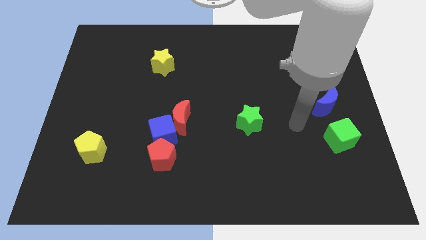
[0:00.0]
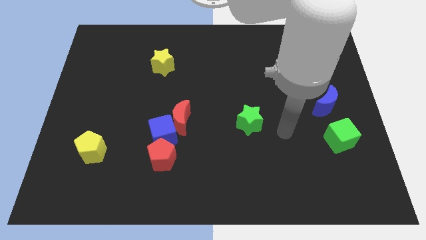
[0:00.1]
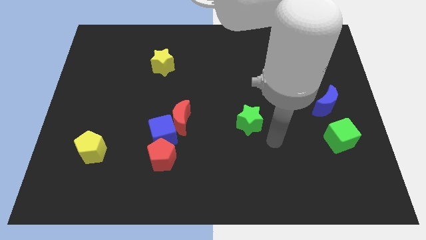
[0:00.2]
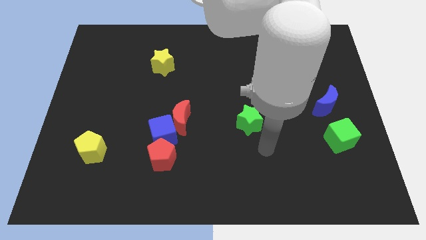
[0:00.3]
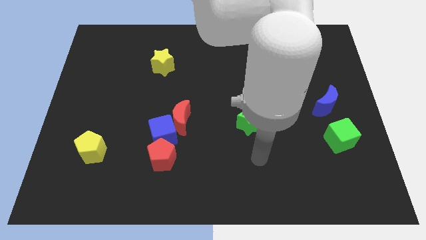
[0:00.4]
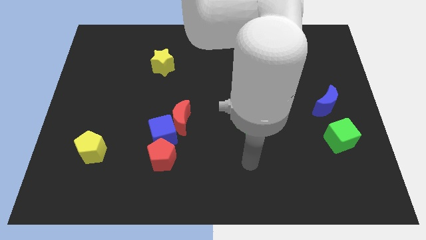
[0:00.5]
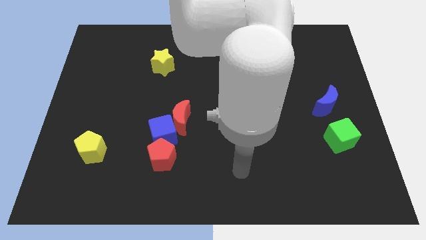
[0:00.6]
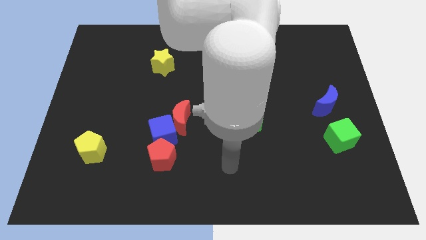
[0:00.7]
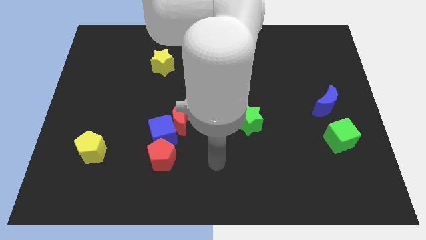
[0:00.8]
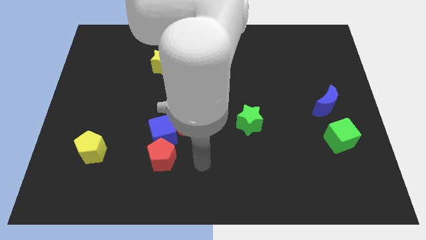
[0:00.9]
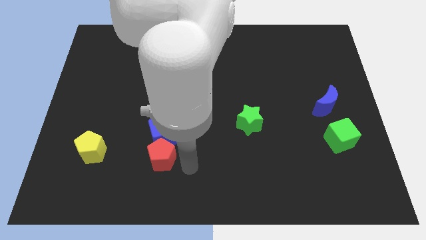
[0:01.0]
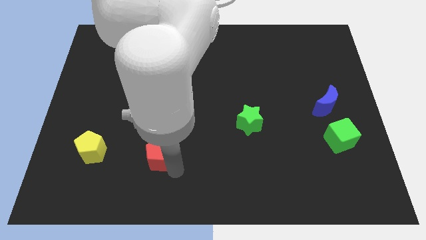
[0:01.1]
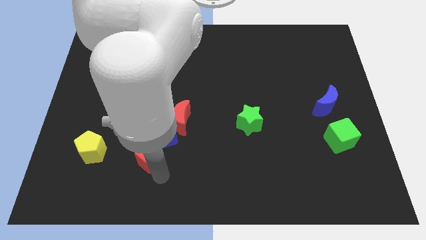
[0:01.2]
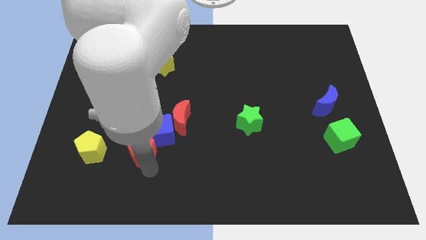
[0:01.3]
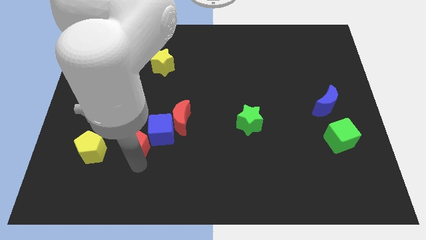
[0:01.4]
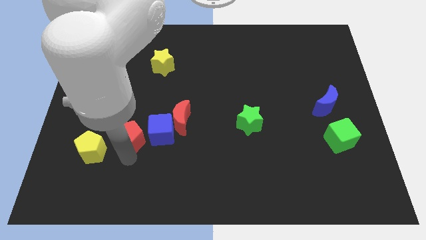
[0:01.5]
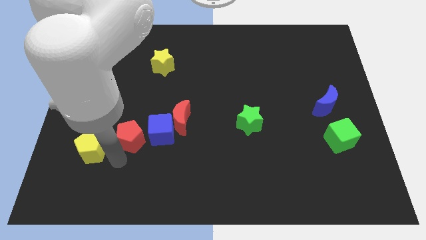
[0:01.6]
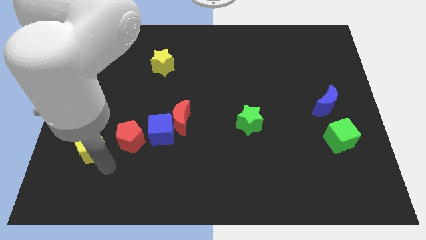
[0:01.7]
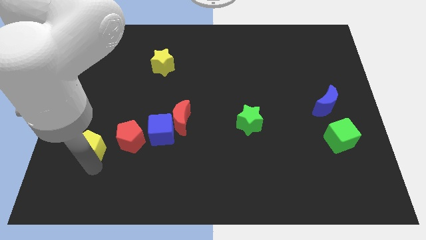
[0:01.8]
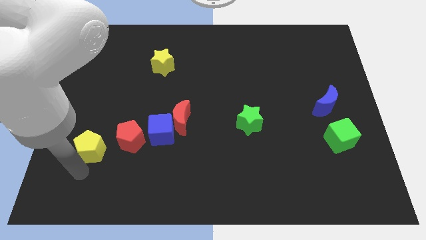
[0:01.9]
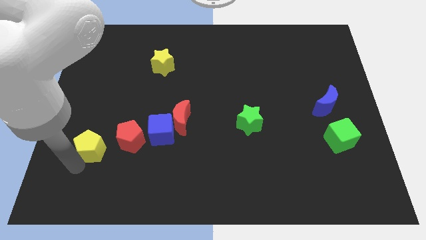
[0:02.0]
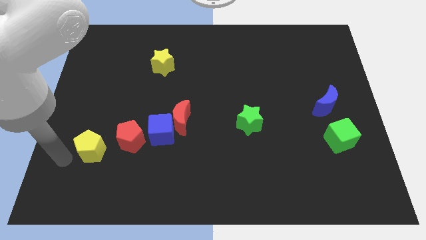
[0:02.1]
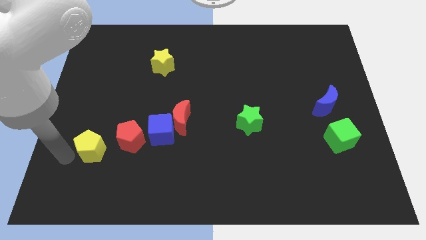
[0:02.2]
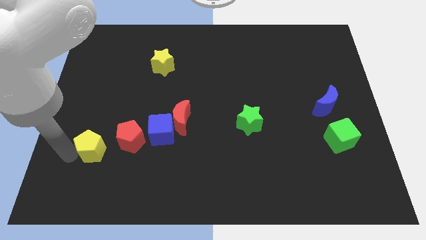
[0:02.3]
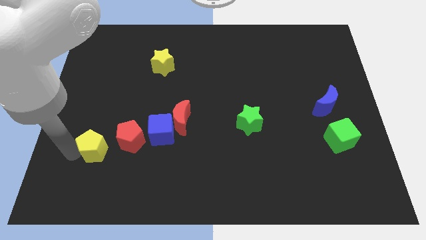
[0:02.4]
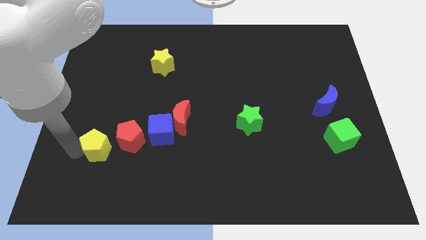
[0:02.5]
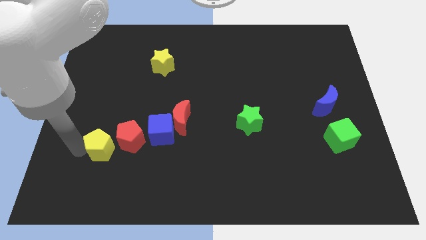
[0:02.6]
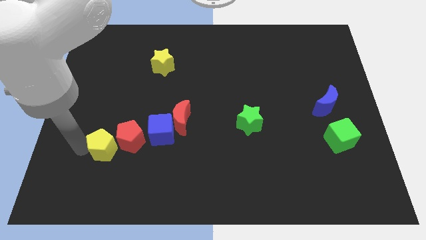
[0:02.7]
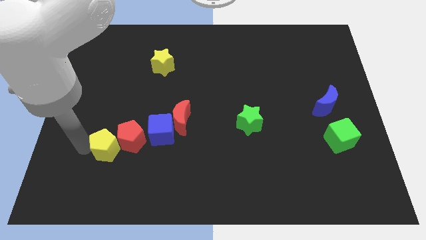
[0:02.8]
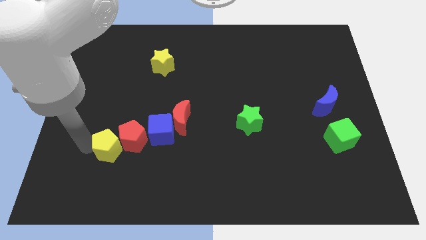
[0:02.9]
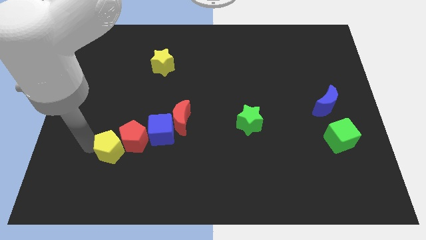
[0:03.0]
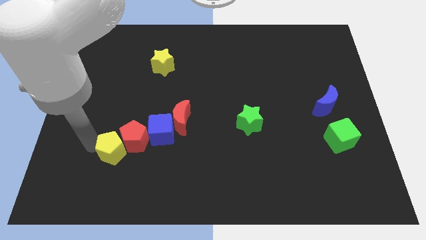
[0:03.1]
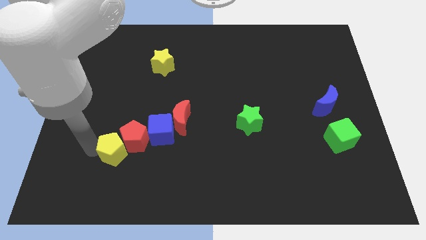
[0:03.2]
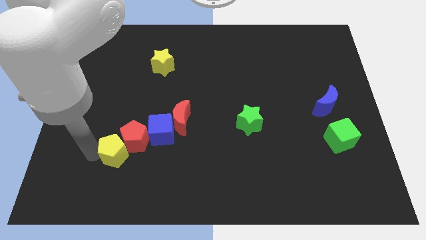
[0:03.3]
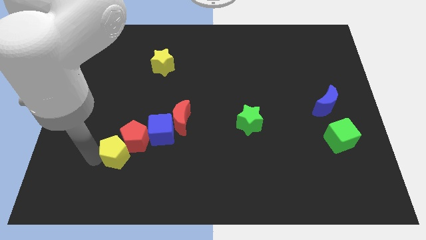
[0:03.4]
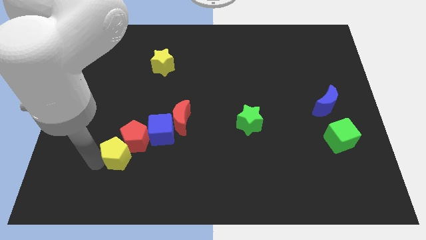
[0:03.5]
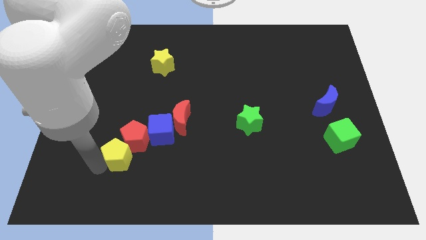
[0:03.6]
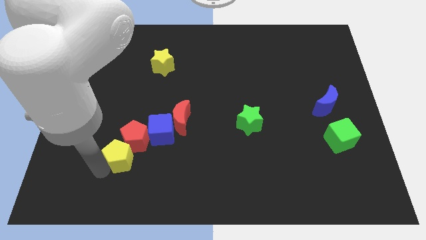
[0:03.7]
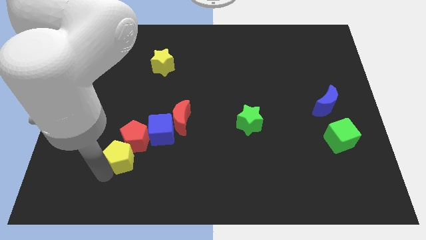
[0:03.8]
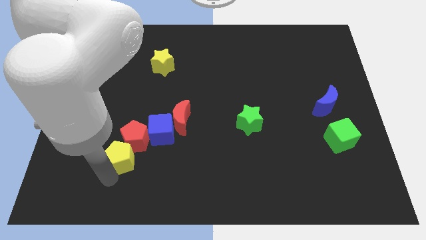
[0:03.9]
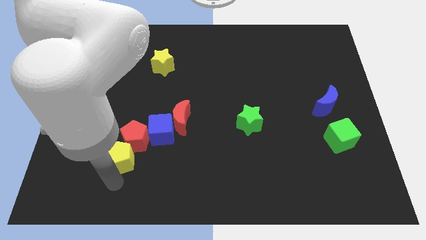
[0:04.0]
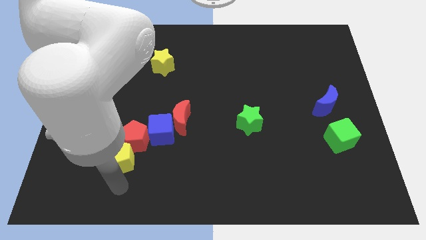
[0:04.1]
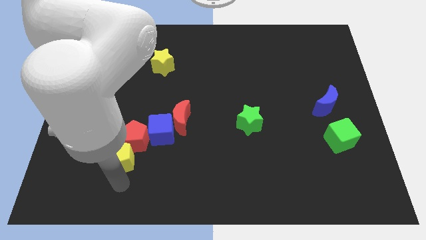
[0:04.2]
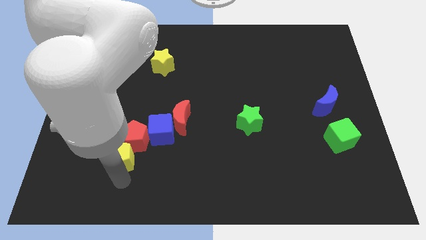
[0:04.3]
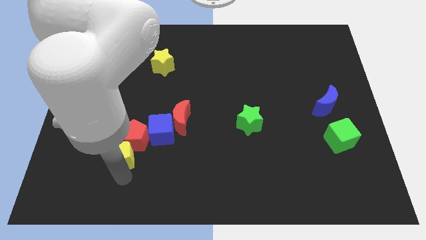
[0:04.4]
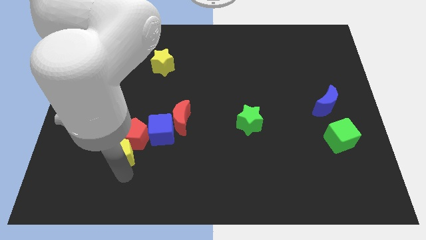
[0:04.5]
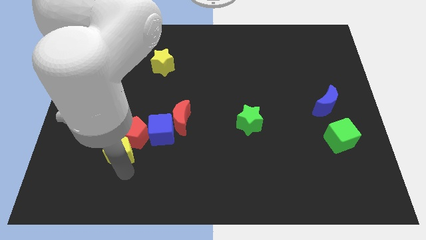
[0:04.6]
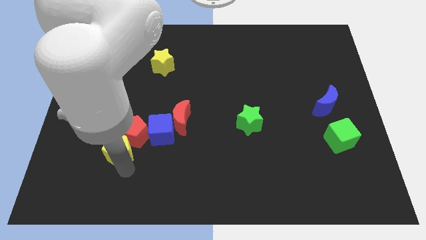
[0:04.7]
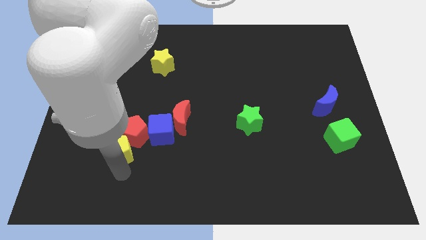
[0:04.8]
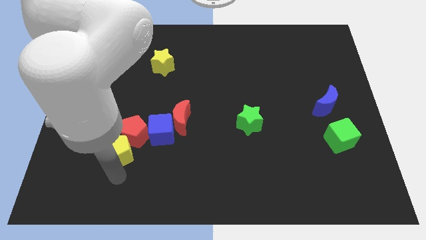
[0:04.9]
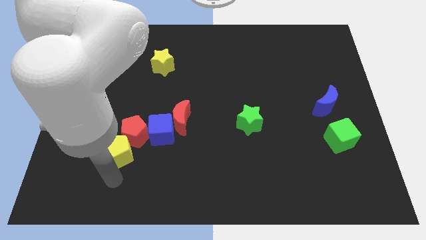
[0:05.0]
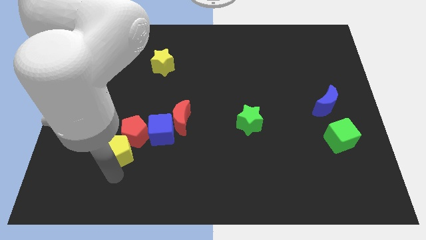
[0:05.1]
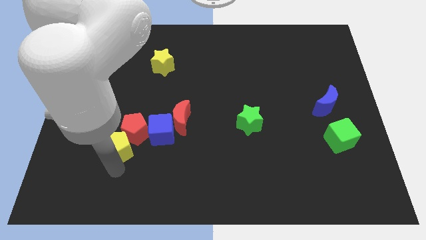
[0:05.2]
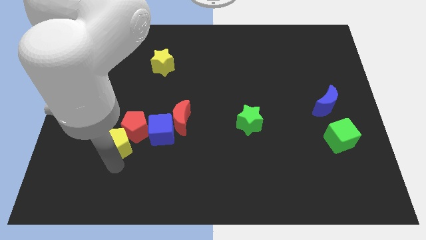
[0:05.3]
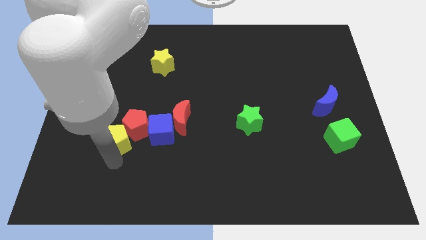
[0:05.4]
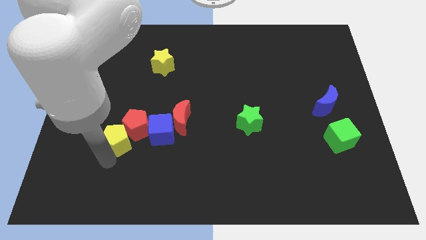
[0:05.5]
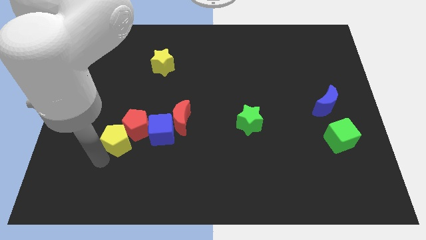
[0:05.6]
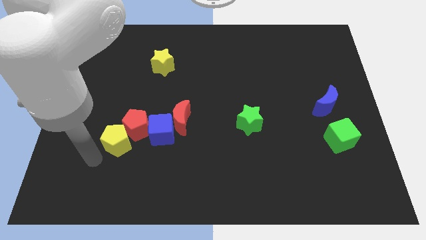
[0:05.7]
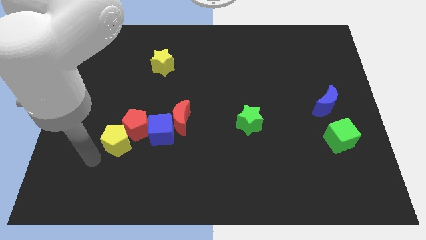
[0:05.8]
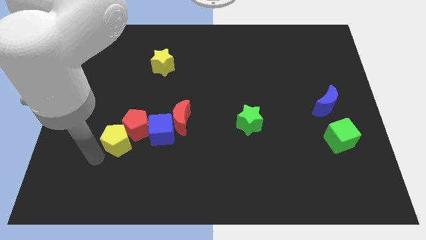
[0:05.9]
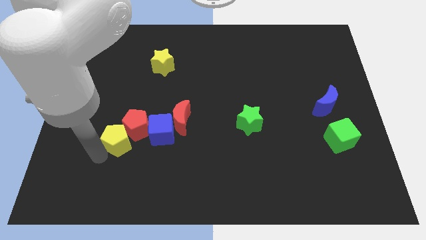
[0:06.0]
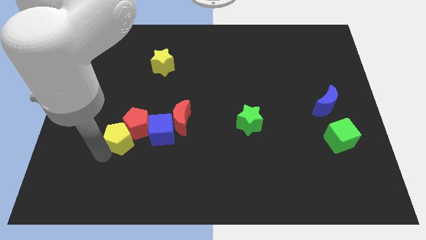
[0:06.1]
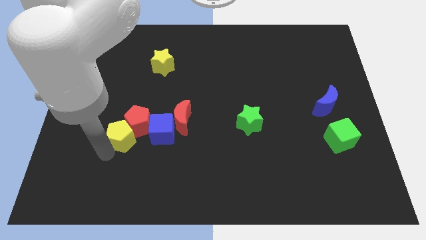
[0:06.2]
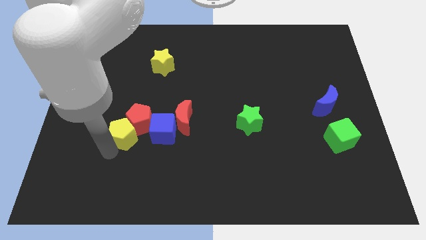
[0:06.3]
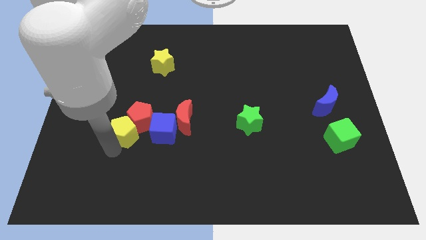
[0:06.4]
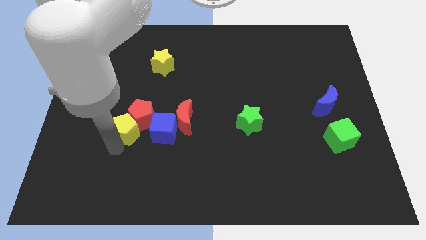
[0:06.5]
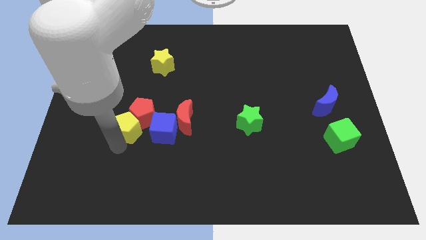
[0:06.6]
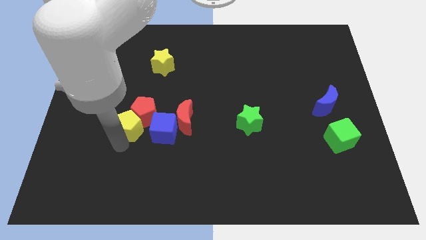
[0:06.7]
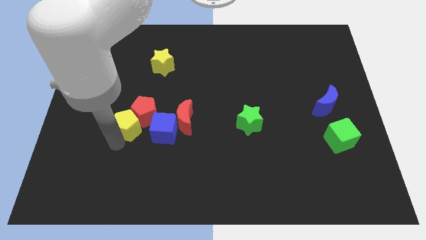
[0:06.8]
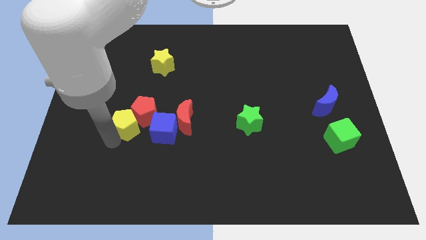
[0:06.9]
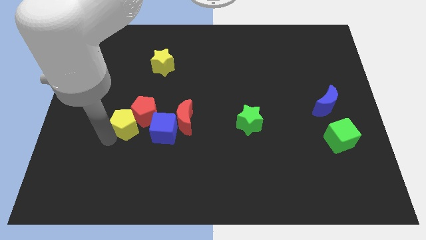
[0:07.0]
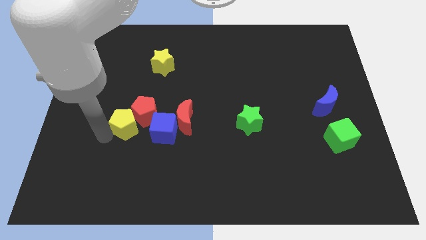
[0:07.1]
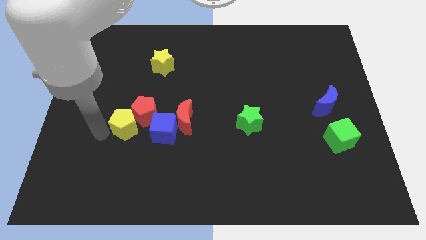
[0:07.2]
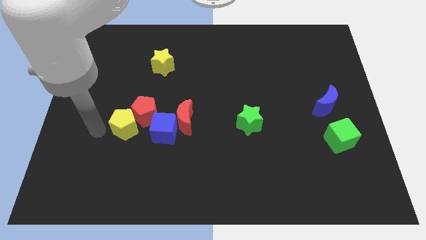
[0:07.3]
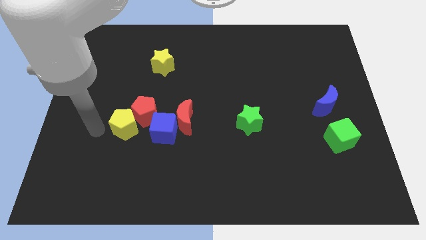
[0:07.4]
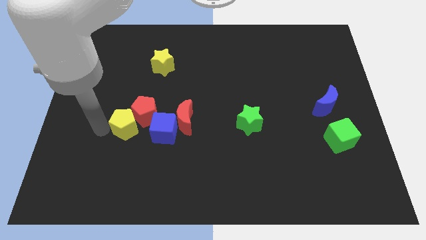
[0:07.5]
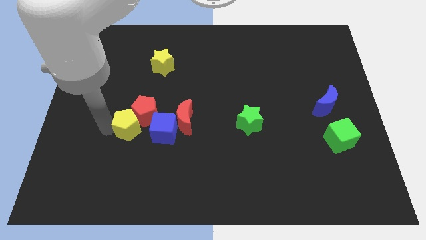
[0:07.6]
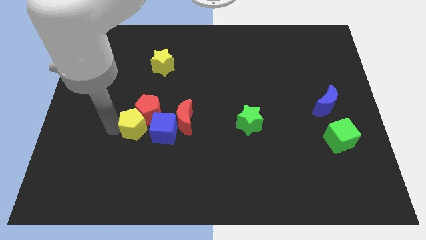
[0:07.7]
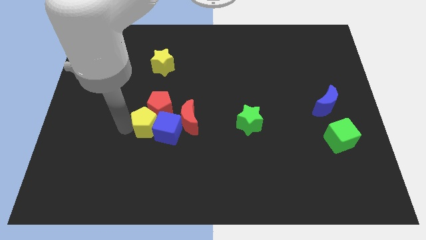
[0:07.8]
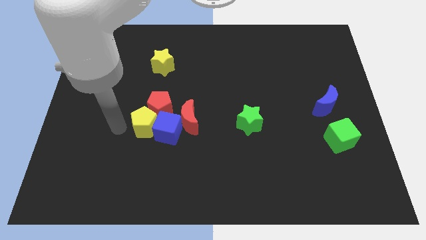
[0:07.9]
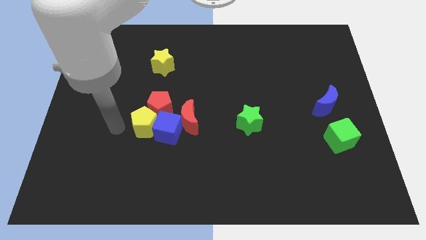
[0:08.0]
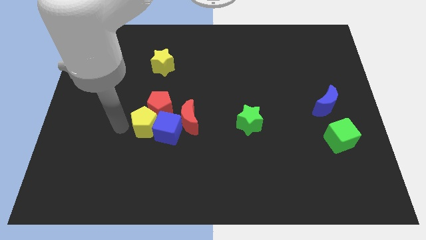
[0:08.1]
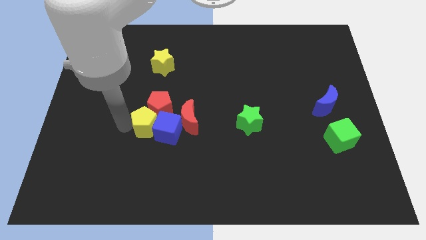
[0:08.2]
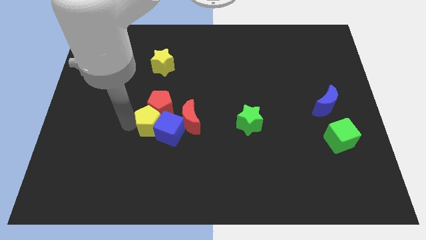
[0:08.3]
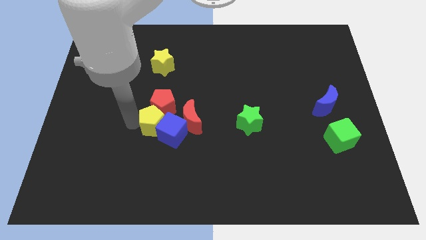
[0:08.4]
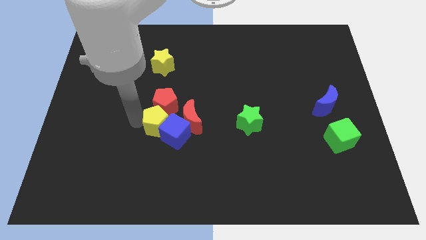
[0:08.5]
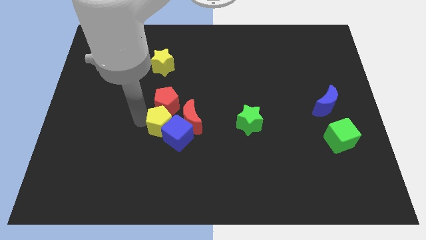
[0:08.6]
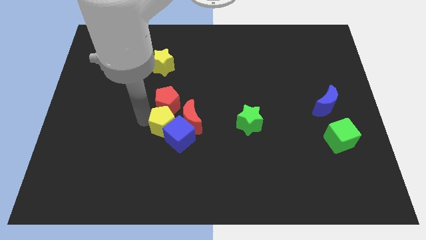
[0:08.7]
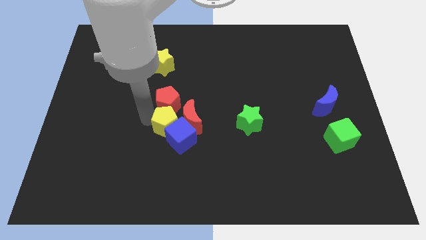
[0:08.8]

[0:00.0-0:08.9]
put the yellow pentagon towards the red moon
